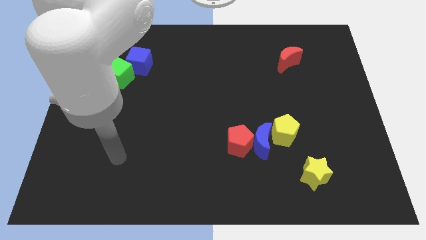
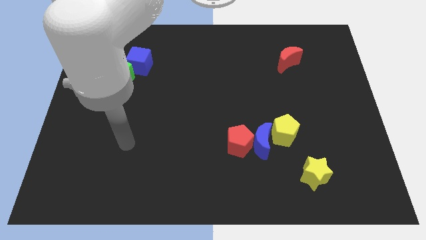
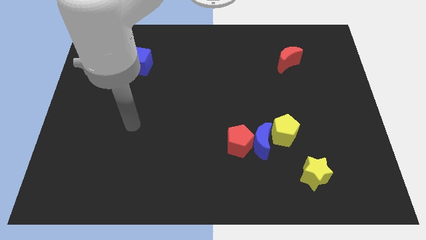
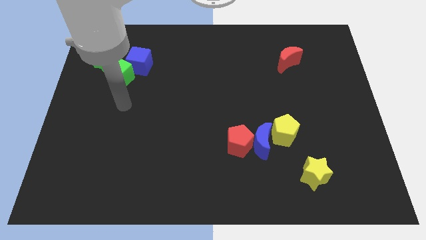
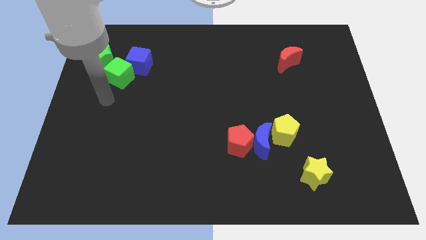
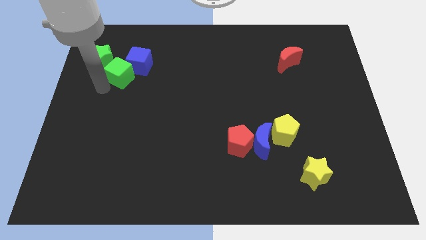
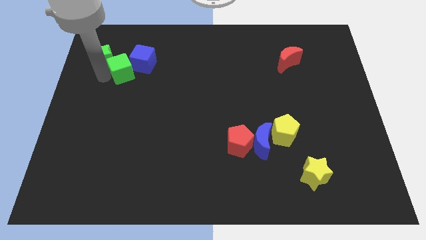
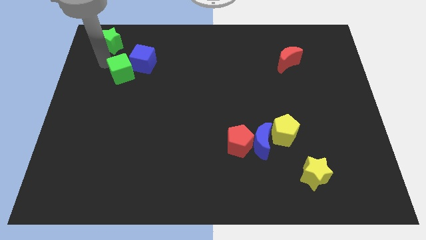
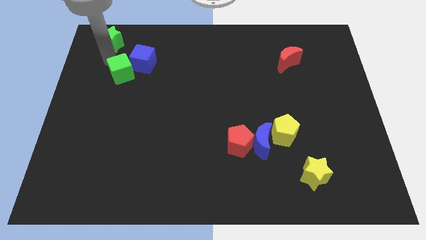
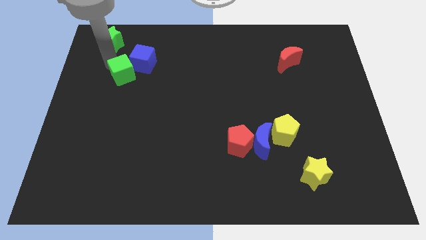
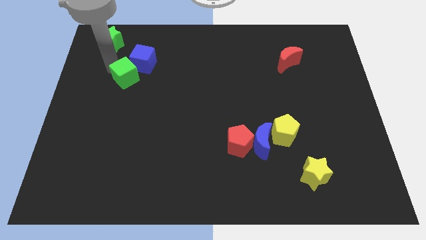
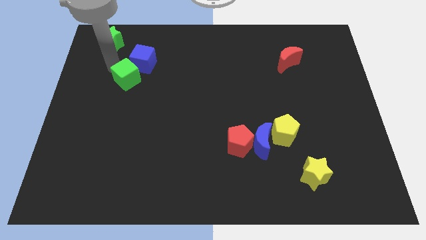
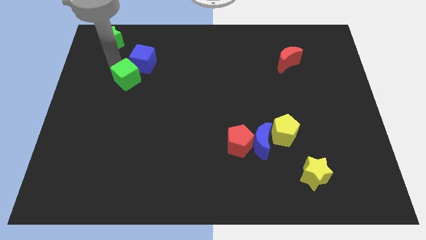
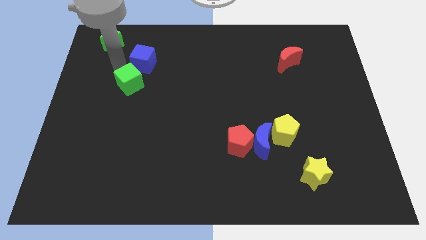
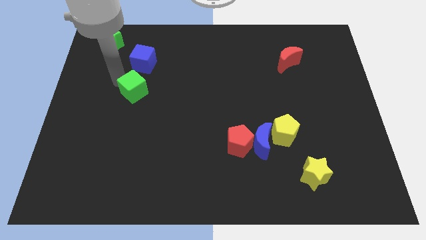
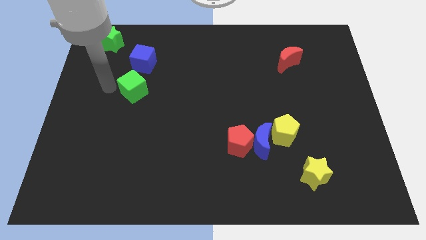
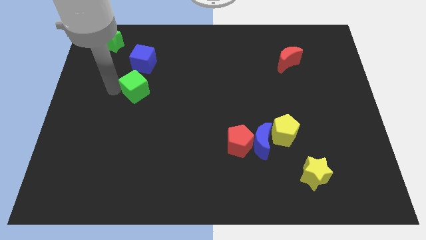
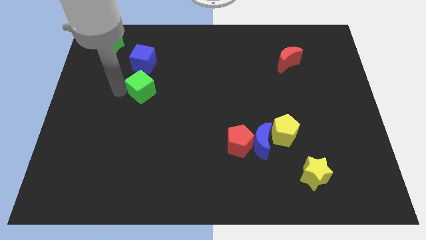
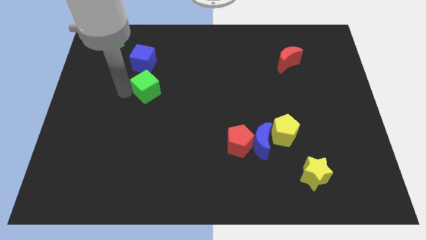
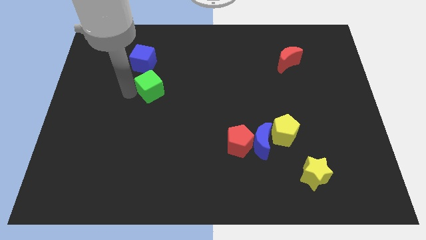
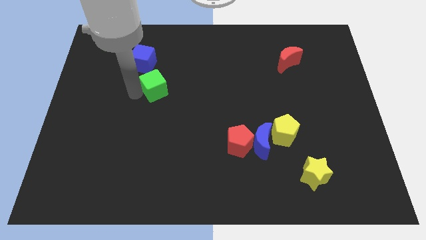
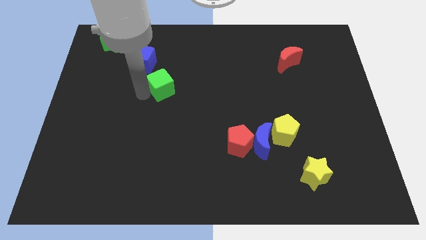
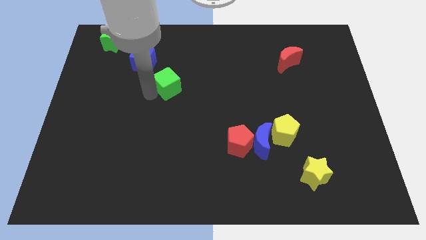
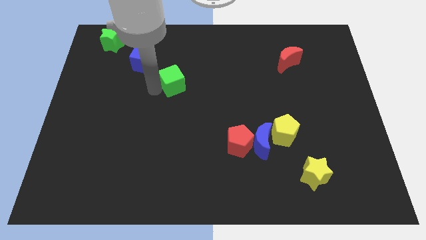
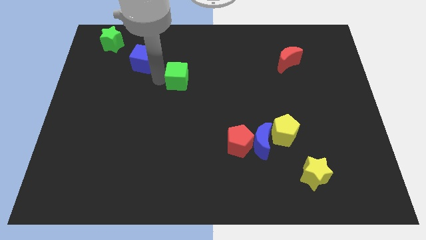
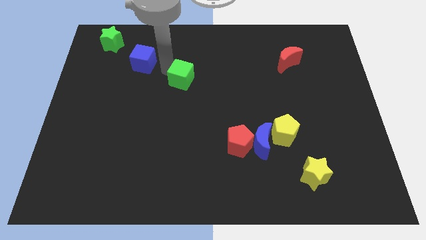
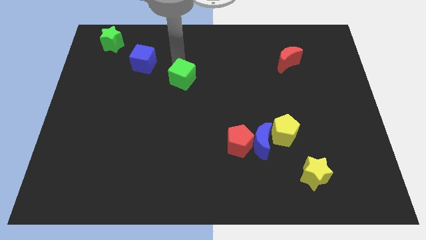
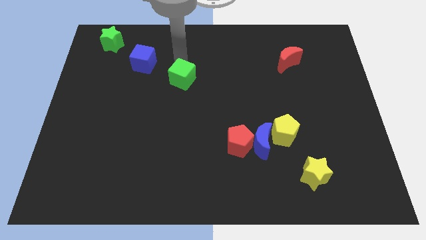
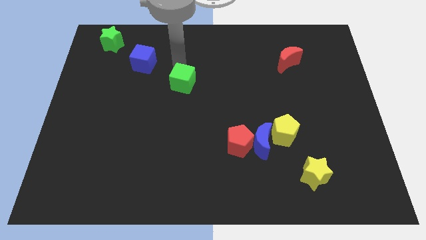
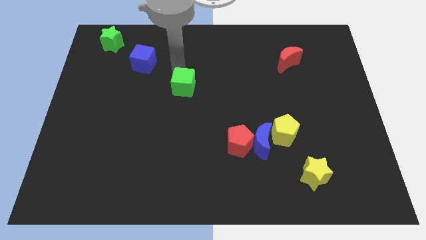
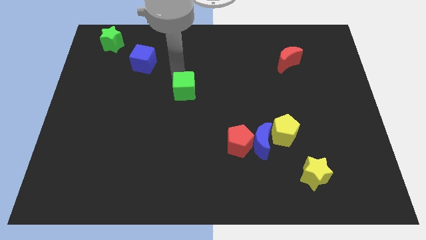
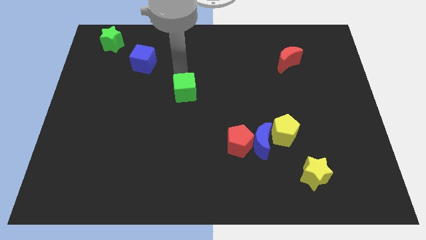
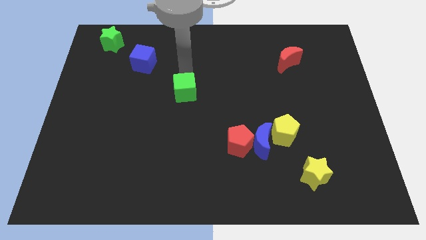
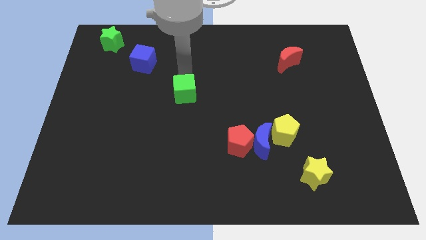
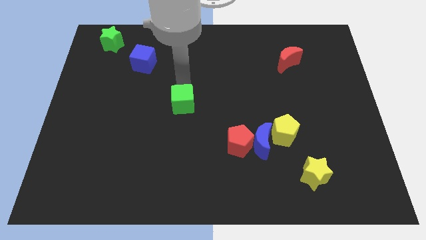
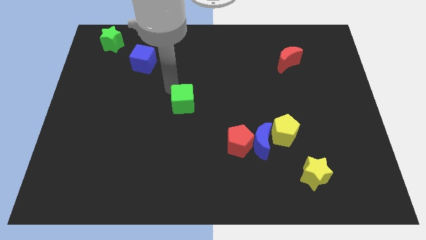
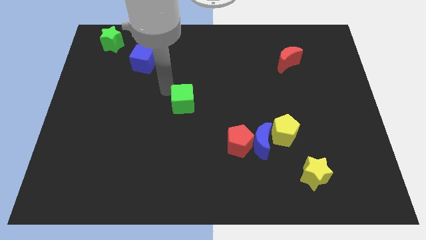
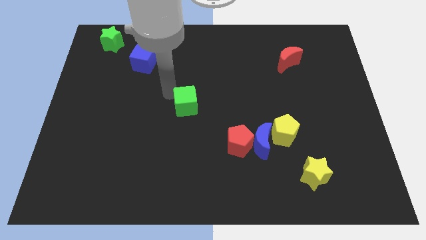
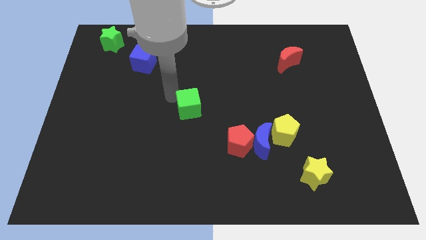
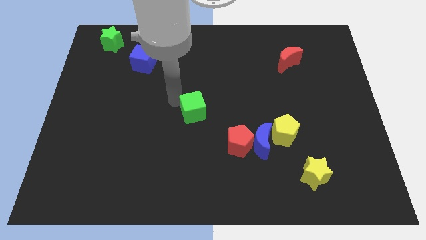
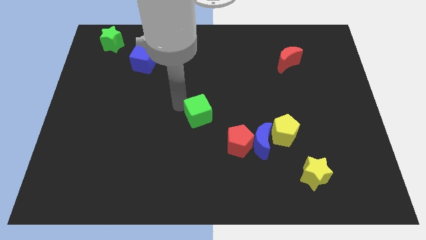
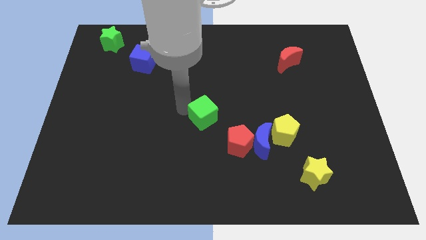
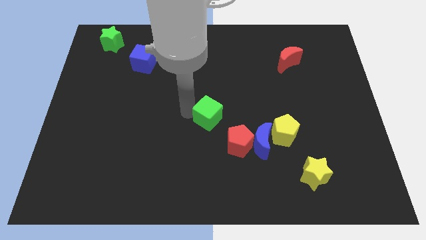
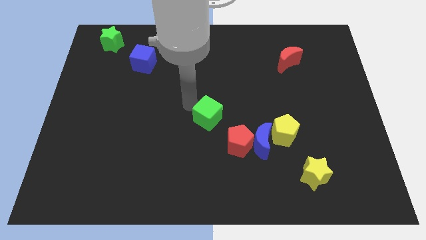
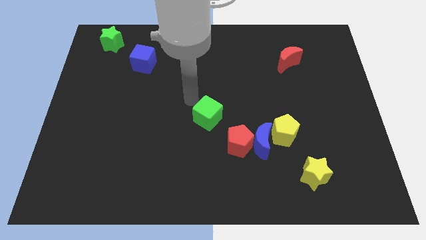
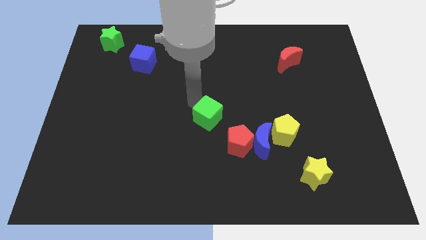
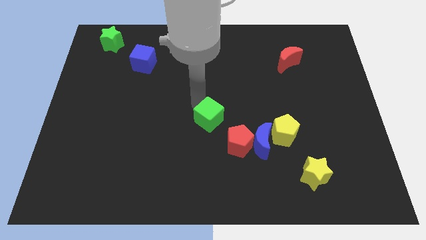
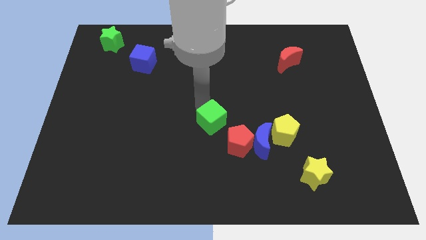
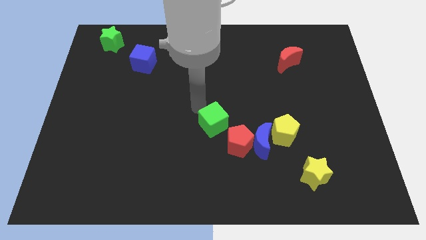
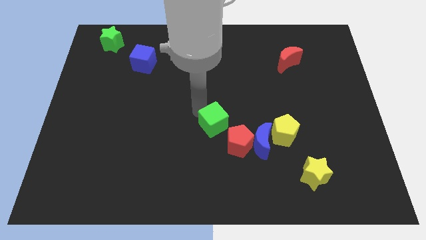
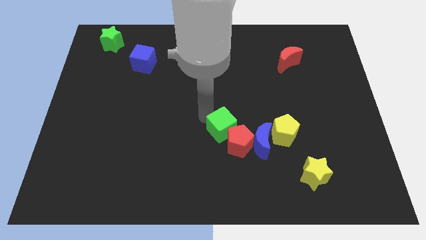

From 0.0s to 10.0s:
push the green cube close to the red pentagon

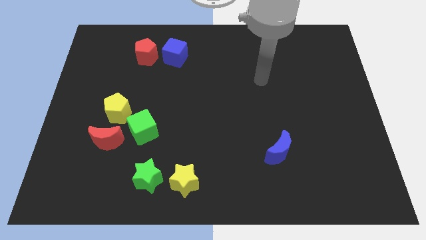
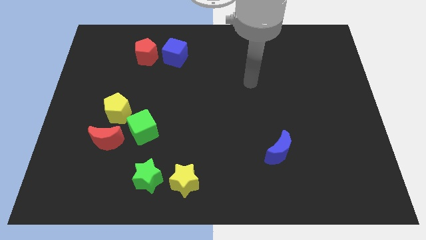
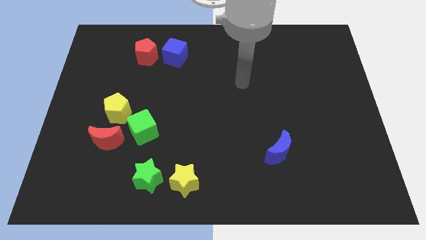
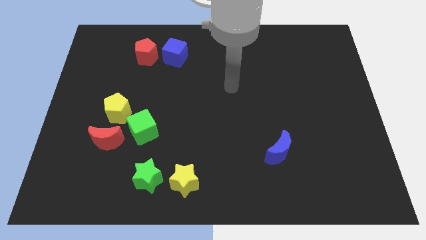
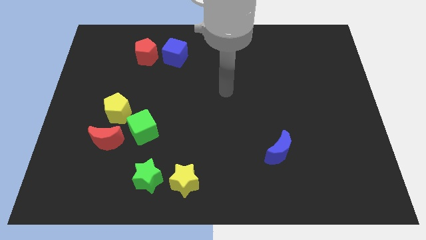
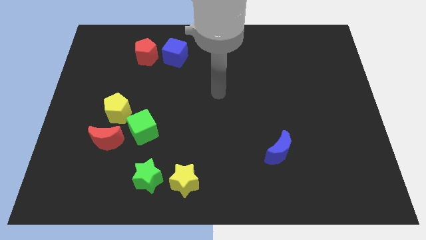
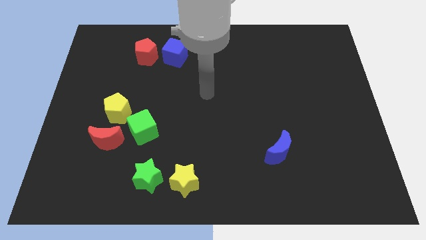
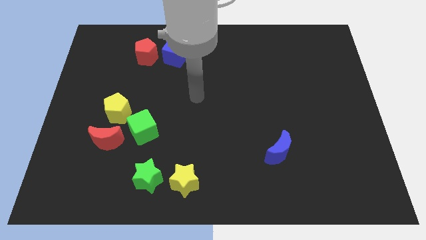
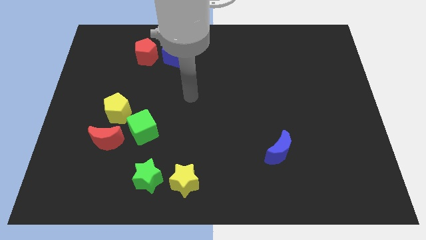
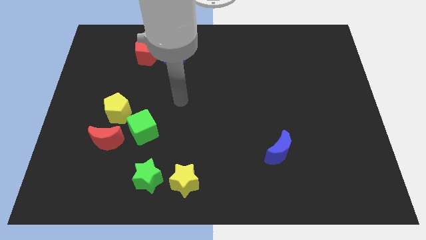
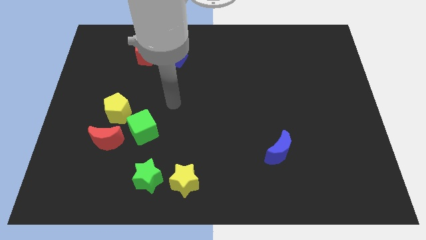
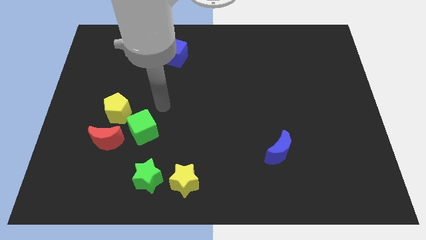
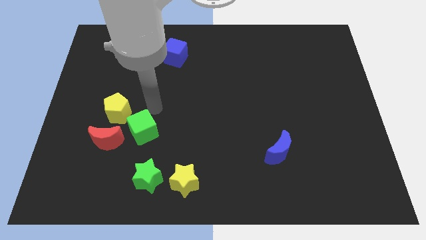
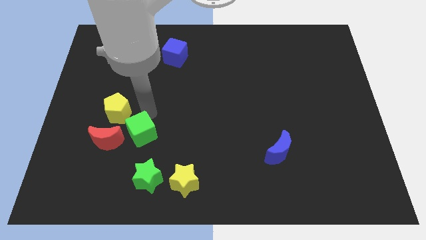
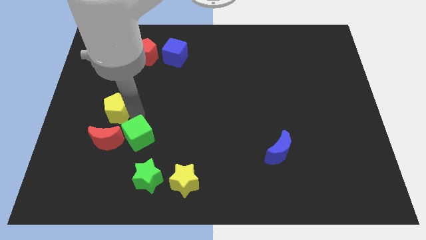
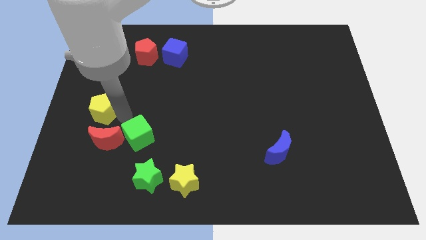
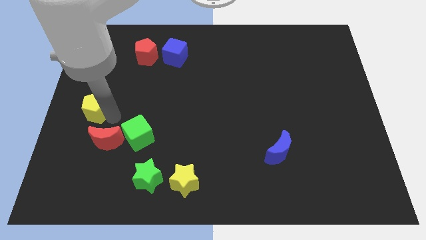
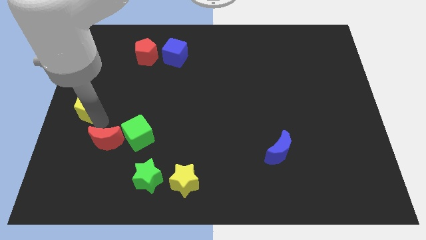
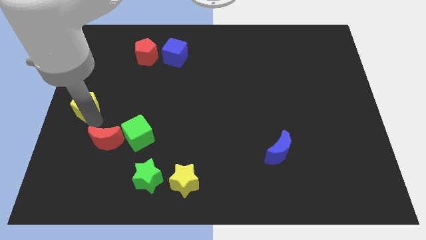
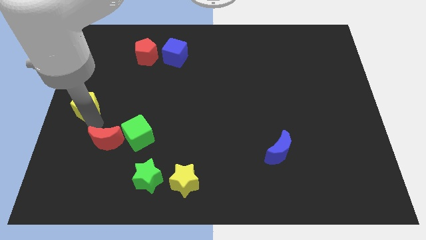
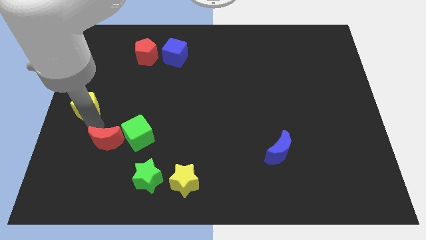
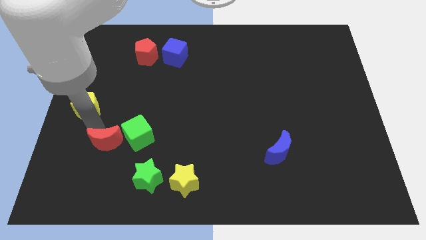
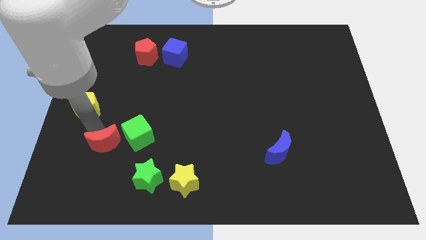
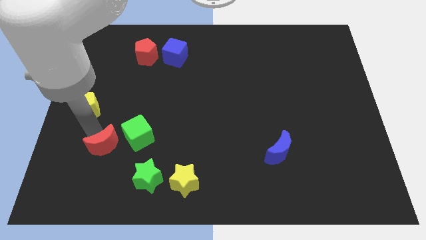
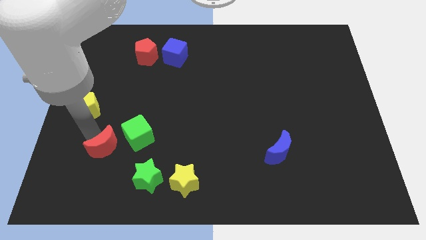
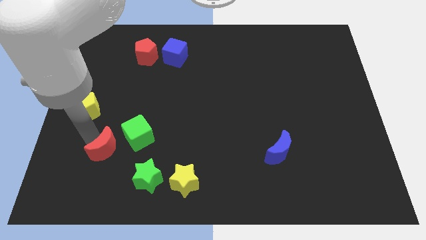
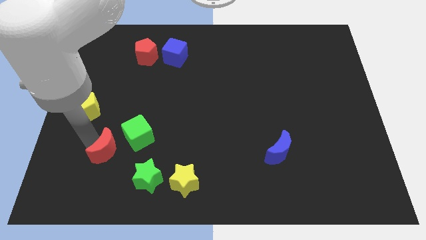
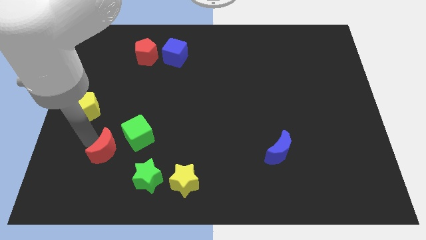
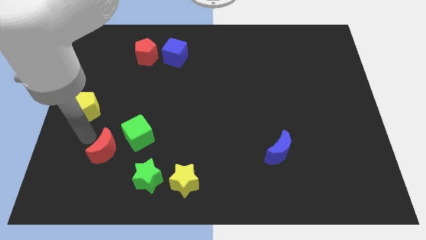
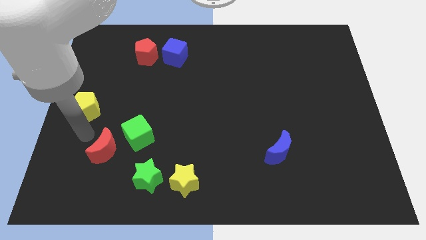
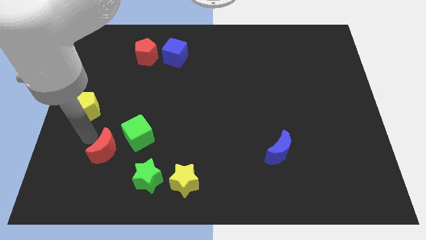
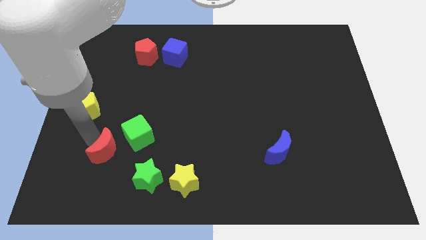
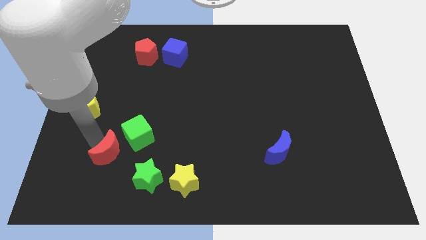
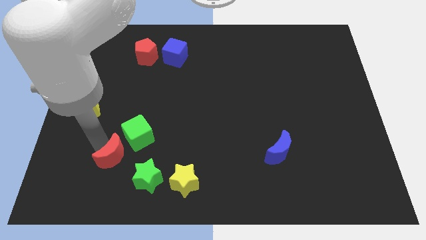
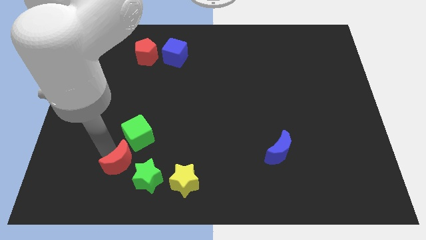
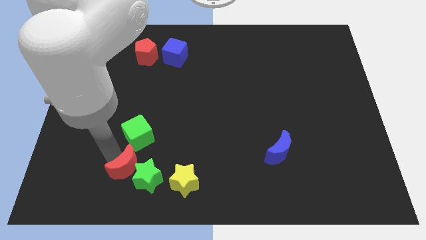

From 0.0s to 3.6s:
push the red moon next to the green star
